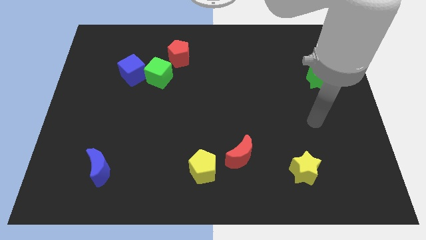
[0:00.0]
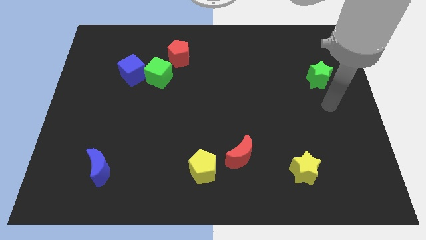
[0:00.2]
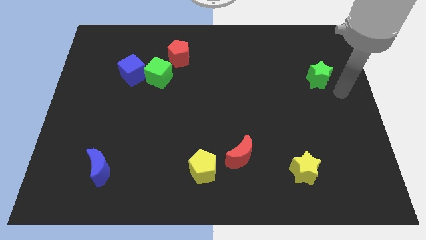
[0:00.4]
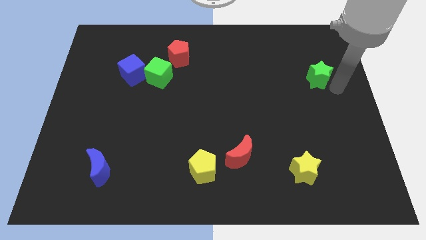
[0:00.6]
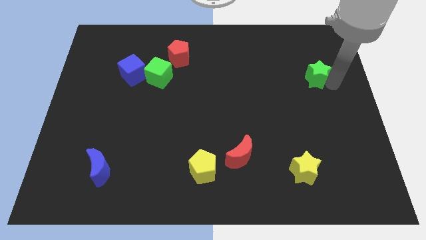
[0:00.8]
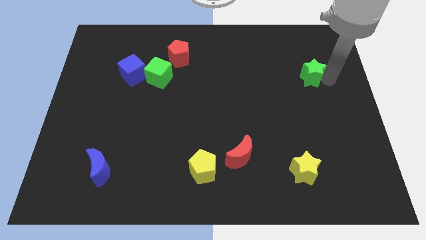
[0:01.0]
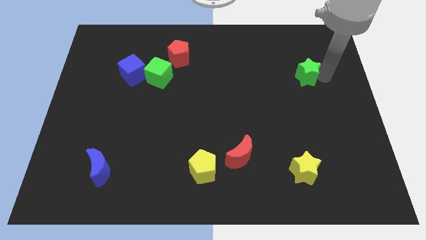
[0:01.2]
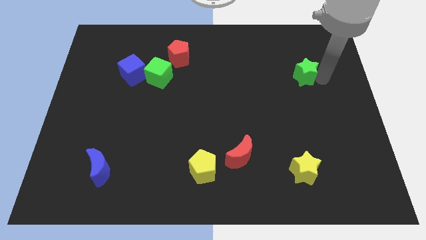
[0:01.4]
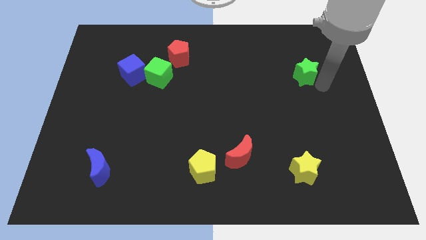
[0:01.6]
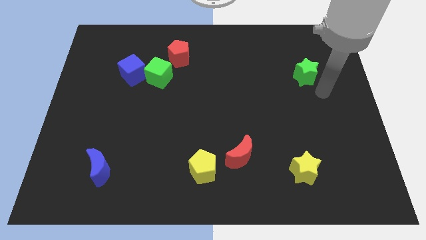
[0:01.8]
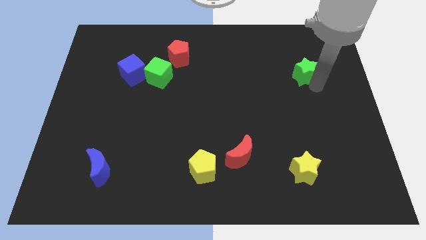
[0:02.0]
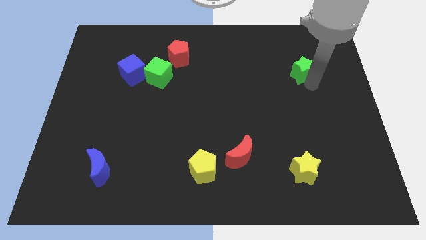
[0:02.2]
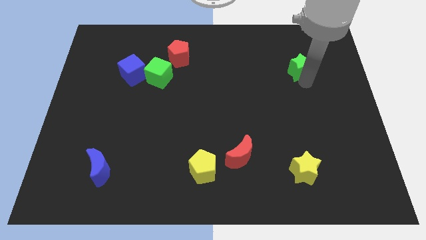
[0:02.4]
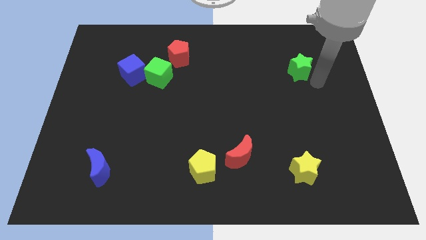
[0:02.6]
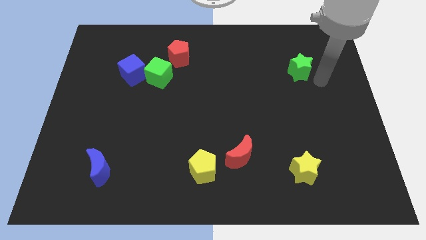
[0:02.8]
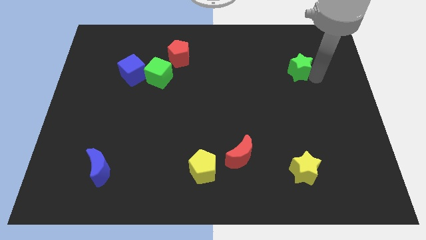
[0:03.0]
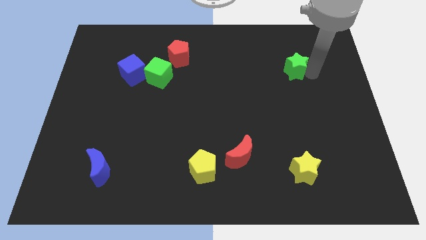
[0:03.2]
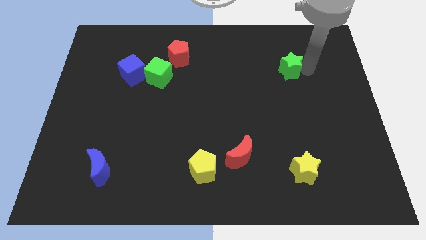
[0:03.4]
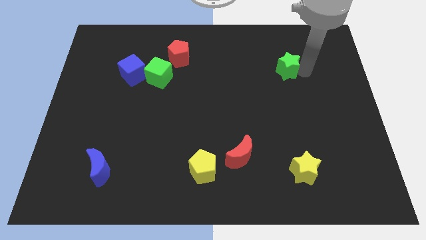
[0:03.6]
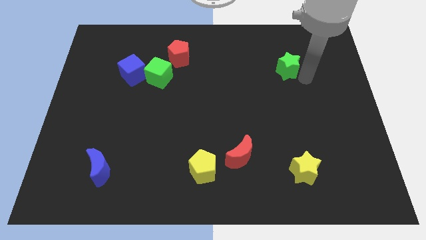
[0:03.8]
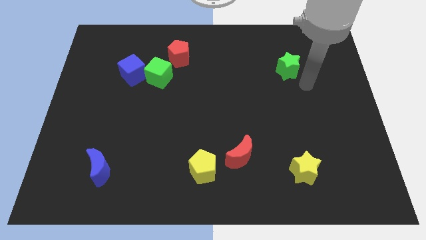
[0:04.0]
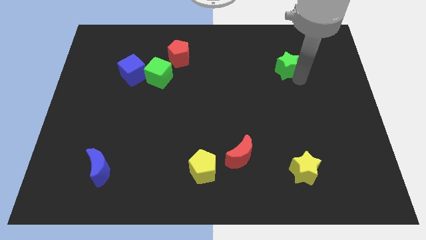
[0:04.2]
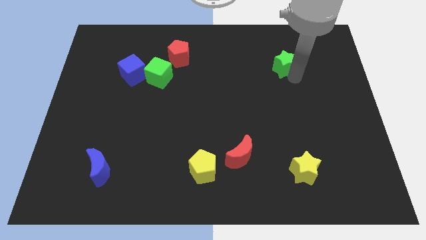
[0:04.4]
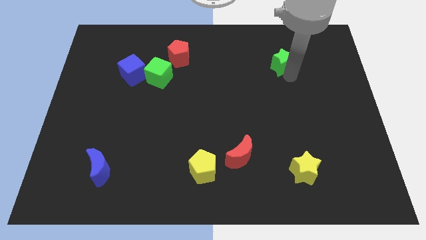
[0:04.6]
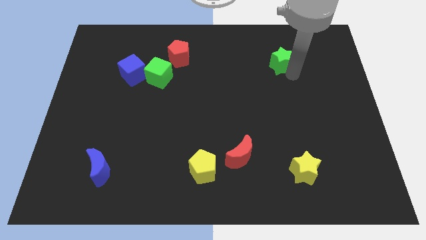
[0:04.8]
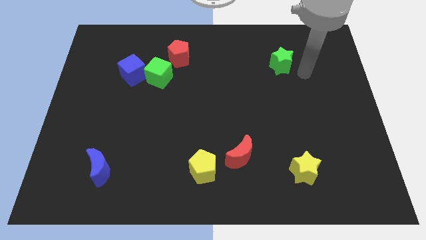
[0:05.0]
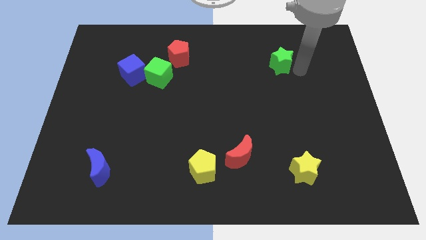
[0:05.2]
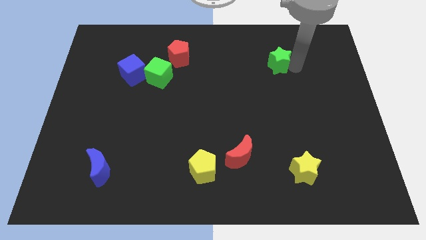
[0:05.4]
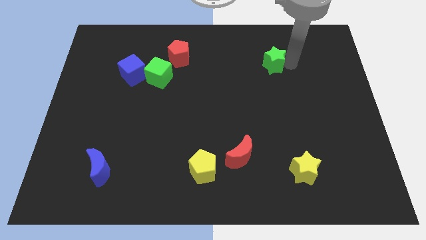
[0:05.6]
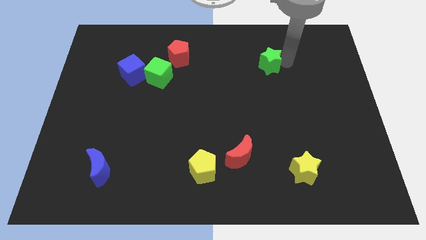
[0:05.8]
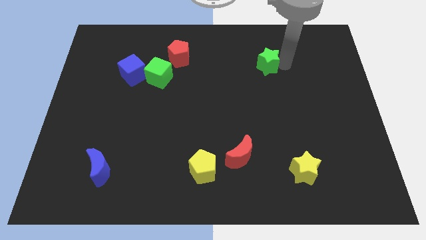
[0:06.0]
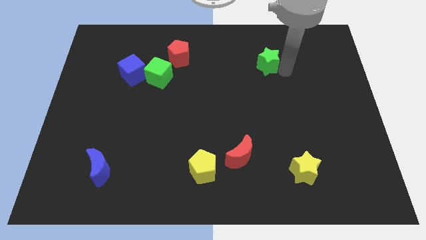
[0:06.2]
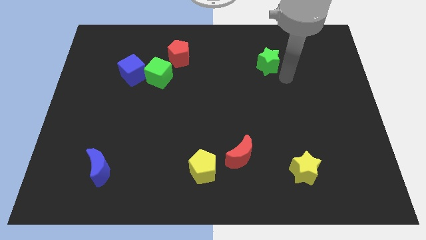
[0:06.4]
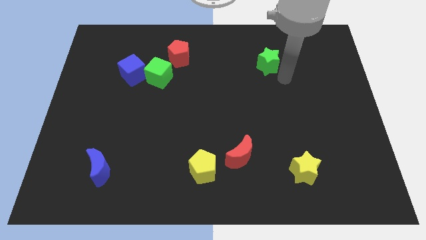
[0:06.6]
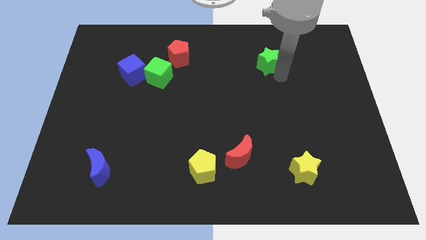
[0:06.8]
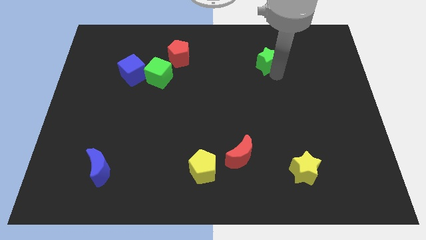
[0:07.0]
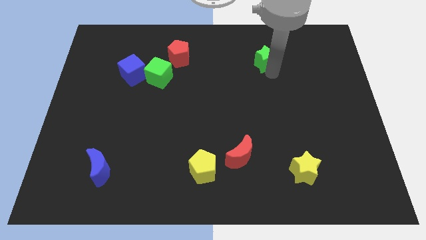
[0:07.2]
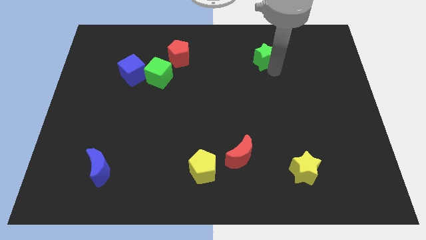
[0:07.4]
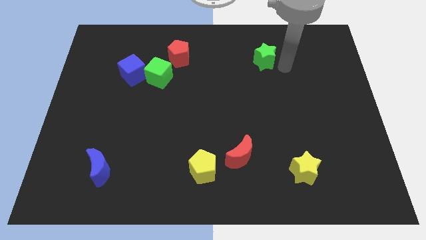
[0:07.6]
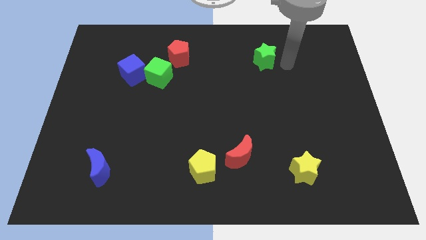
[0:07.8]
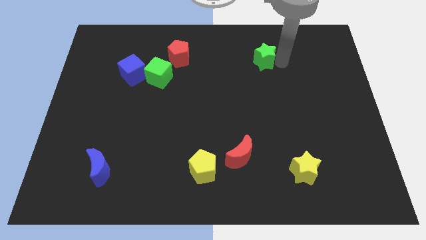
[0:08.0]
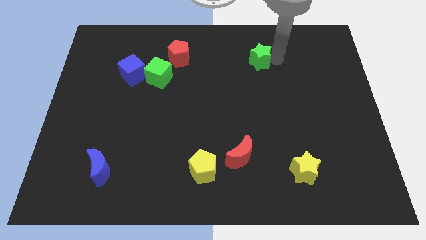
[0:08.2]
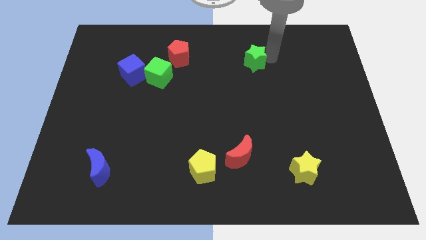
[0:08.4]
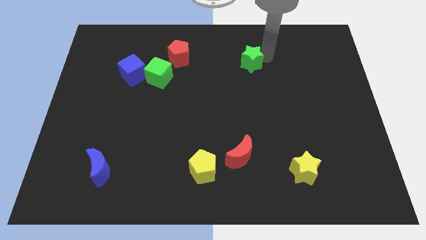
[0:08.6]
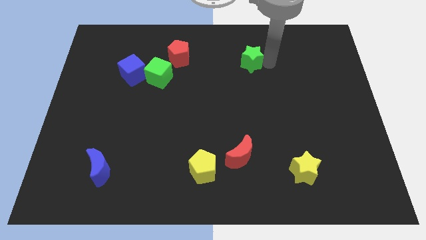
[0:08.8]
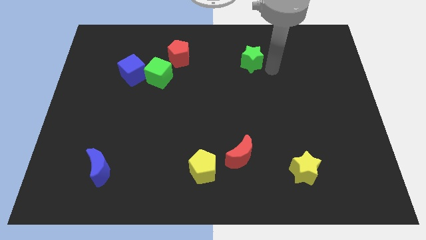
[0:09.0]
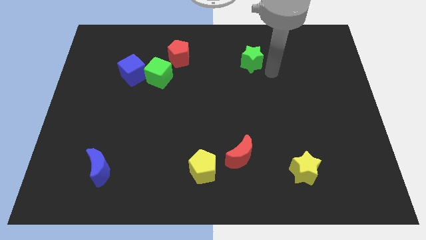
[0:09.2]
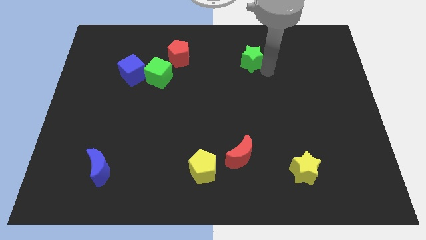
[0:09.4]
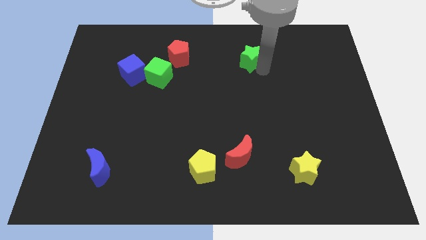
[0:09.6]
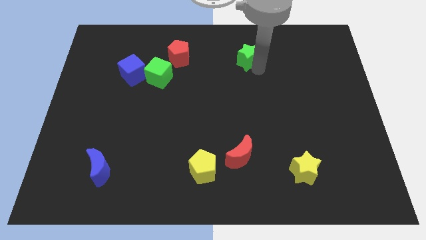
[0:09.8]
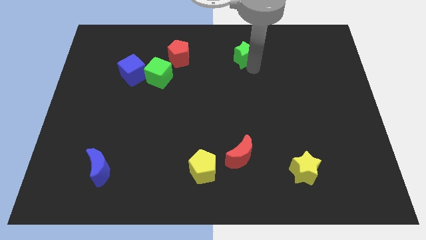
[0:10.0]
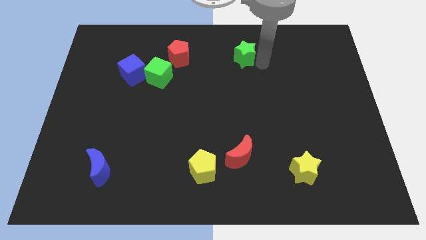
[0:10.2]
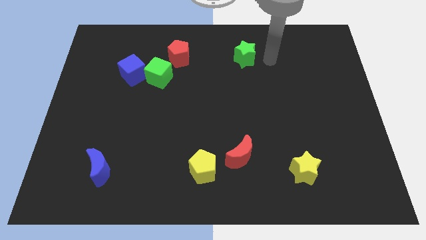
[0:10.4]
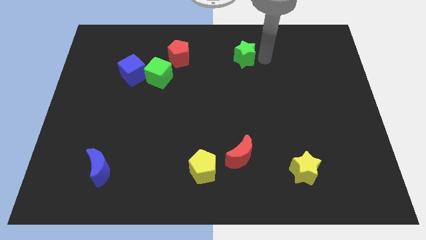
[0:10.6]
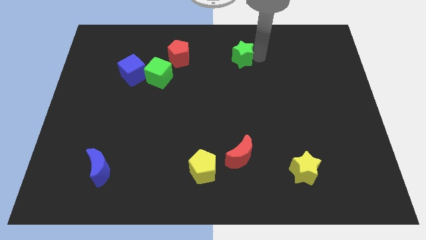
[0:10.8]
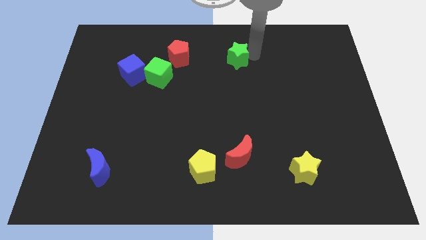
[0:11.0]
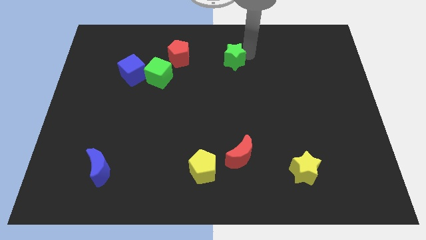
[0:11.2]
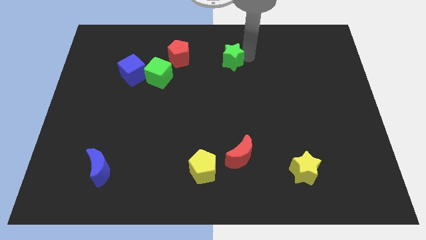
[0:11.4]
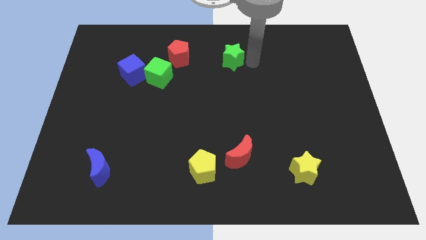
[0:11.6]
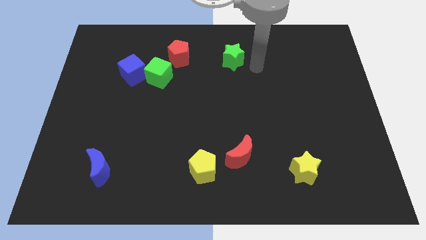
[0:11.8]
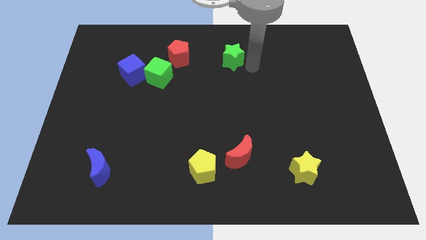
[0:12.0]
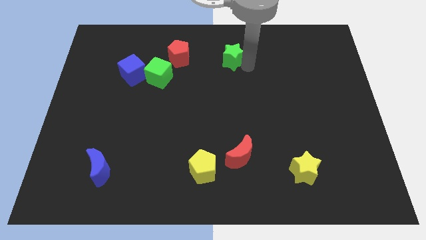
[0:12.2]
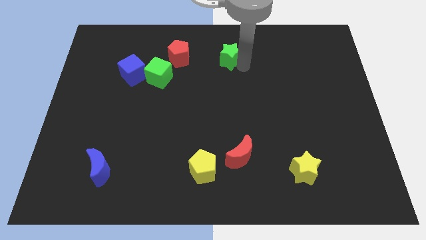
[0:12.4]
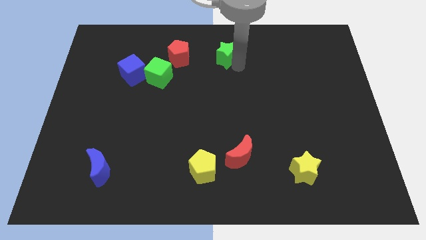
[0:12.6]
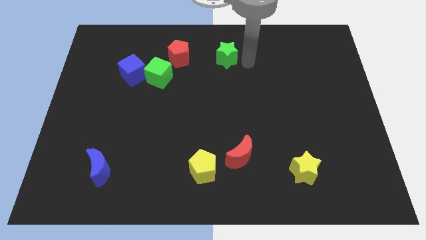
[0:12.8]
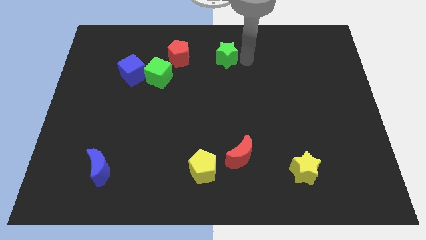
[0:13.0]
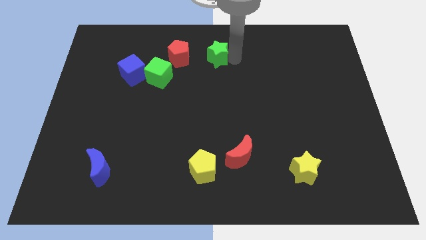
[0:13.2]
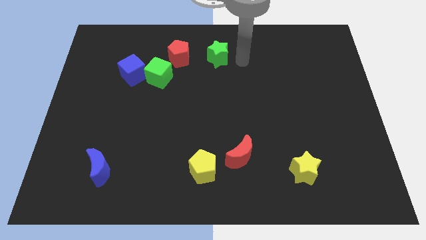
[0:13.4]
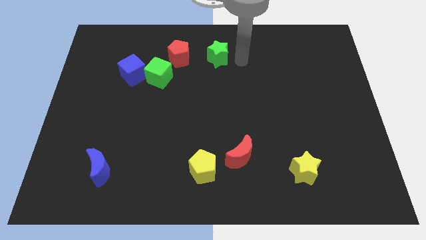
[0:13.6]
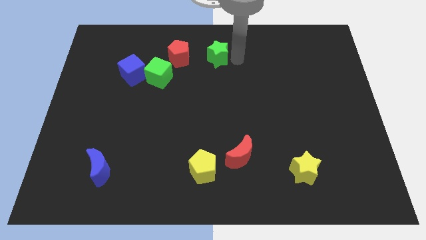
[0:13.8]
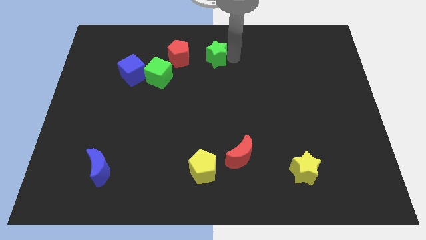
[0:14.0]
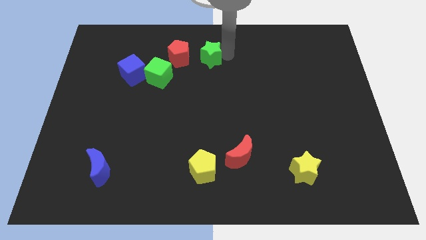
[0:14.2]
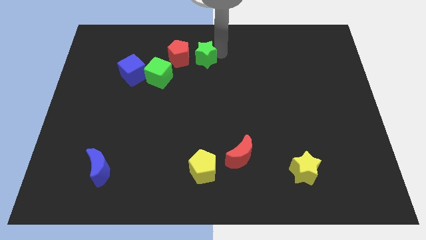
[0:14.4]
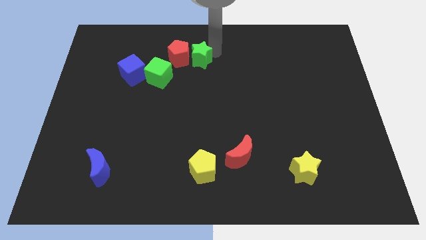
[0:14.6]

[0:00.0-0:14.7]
slide the green star to the red pentagon
